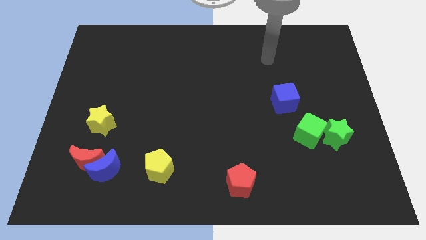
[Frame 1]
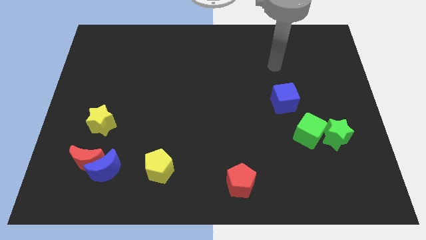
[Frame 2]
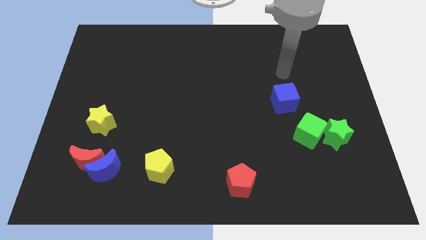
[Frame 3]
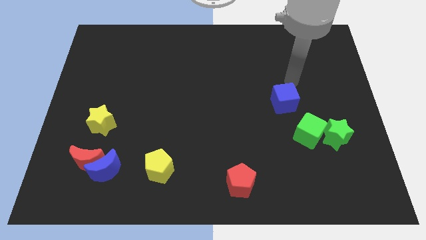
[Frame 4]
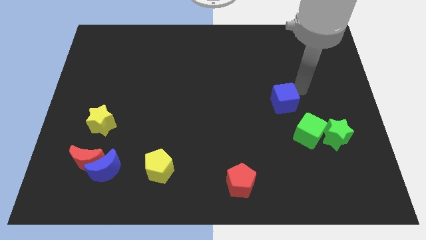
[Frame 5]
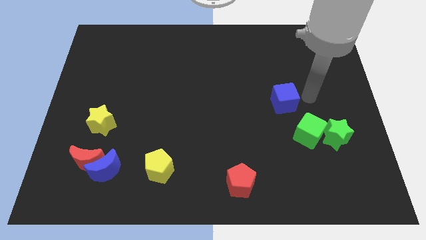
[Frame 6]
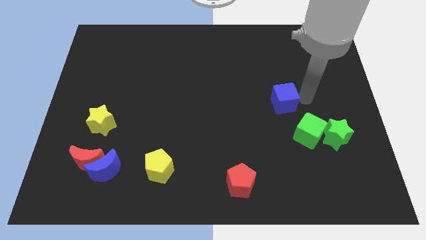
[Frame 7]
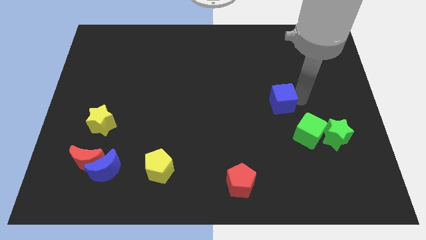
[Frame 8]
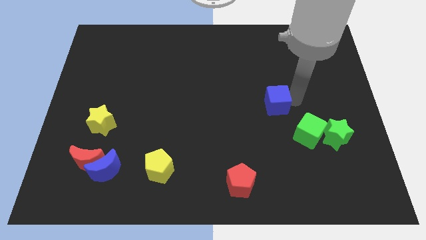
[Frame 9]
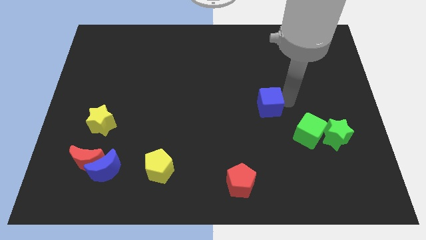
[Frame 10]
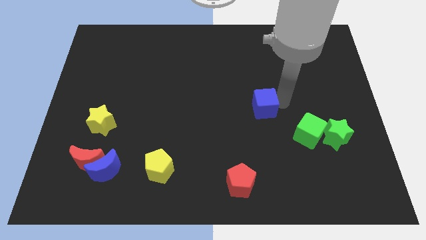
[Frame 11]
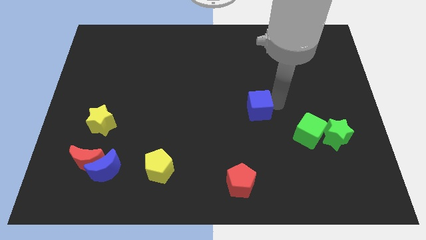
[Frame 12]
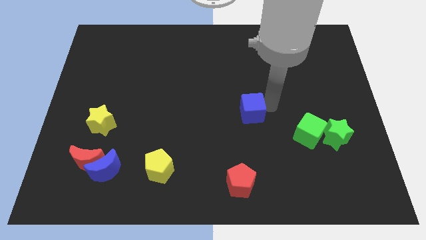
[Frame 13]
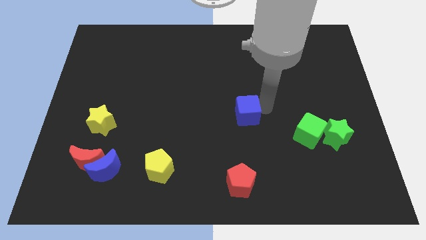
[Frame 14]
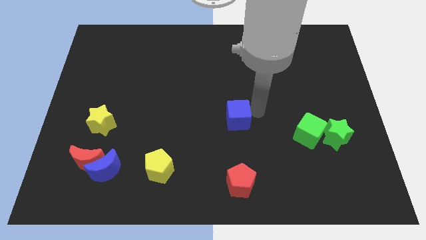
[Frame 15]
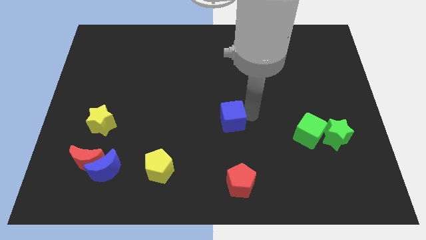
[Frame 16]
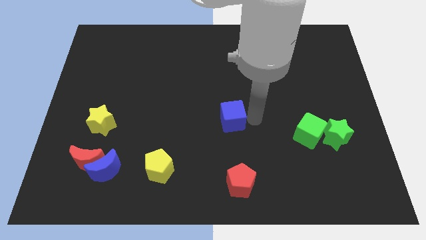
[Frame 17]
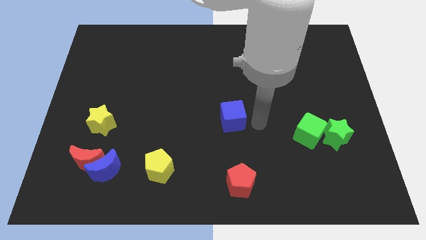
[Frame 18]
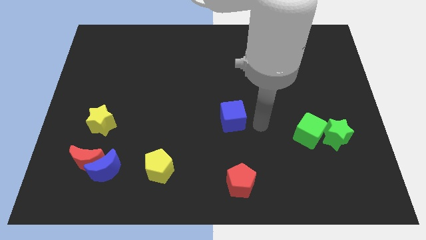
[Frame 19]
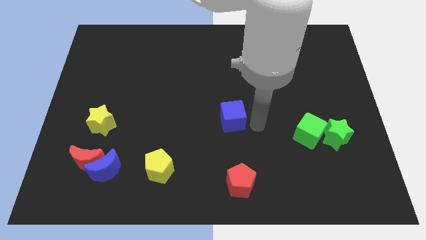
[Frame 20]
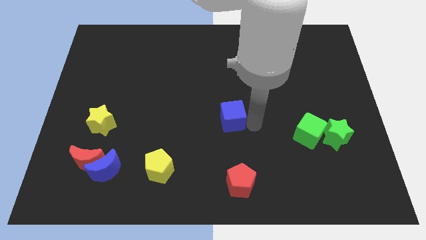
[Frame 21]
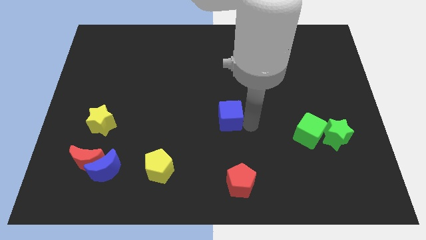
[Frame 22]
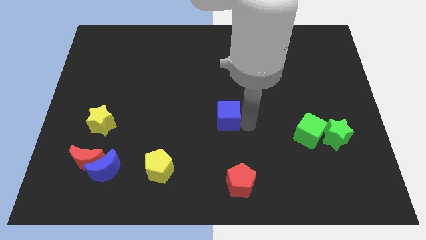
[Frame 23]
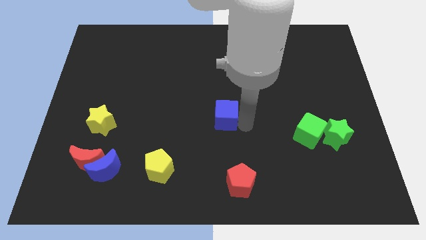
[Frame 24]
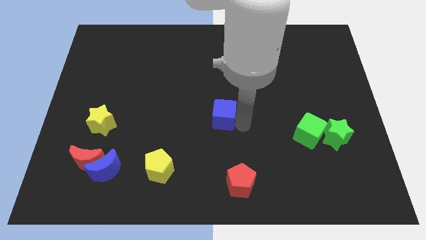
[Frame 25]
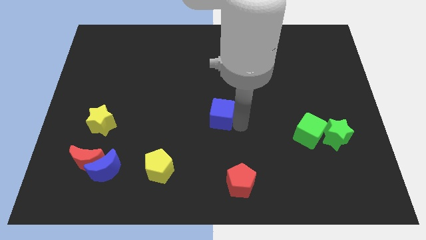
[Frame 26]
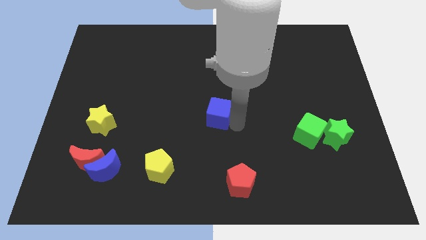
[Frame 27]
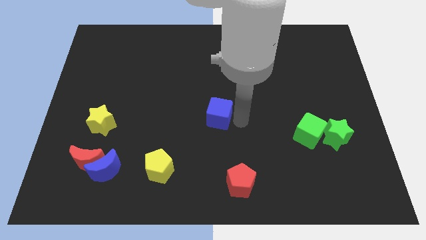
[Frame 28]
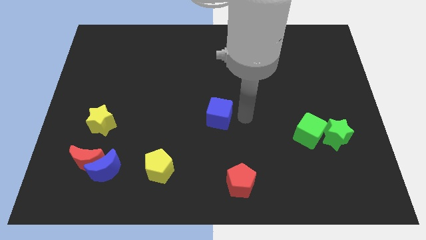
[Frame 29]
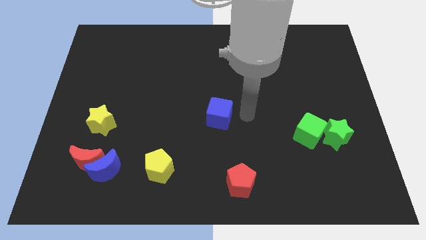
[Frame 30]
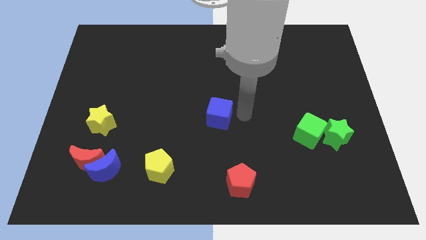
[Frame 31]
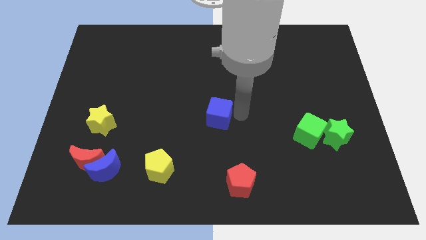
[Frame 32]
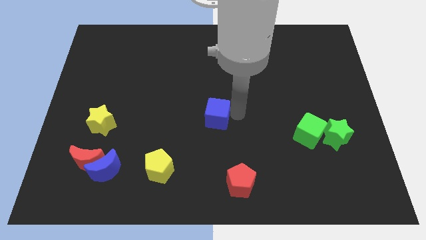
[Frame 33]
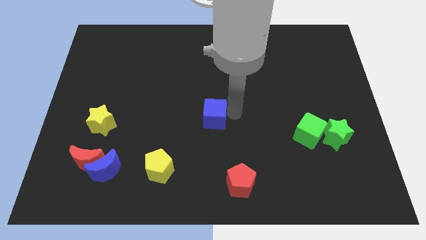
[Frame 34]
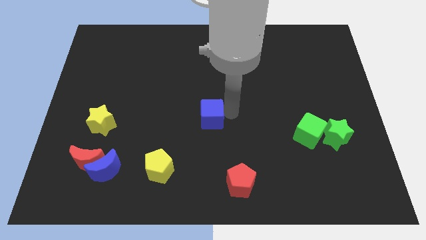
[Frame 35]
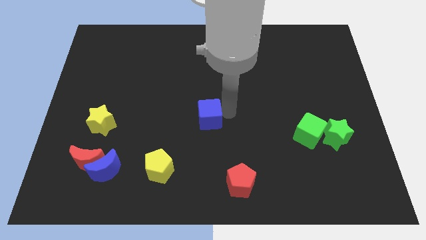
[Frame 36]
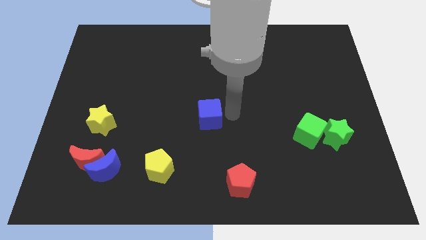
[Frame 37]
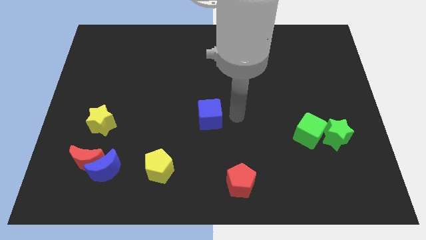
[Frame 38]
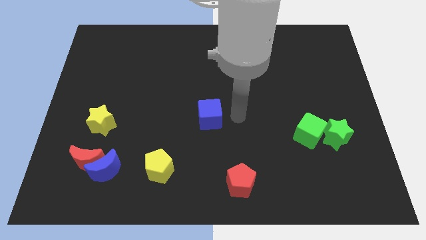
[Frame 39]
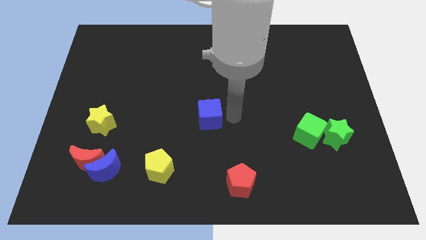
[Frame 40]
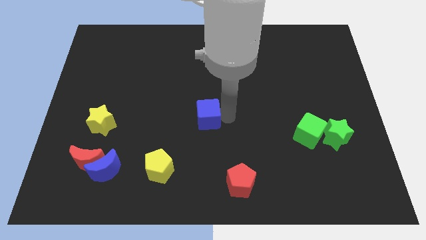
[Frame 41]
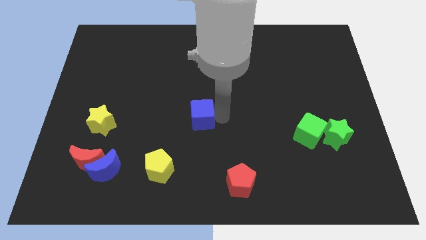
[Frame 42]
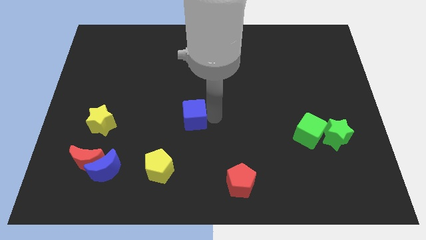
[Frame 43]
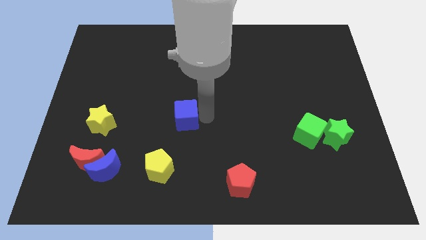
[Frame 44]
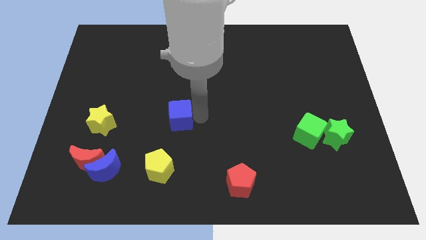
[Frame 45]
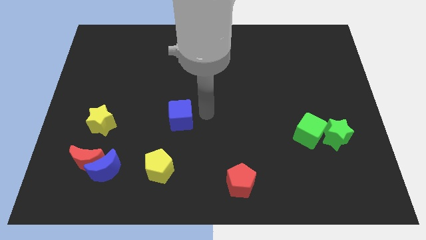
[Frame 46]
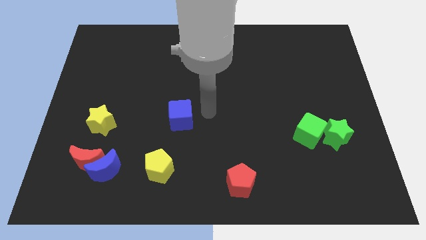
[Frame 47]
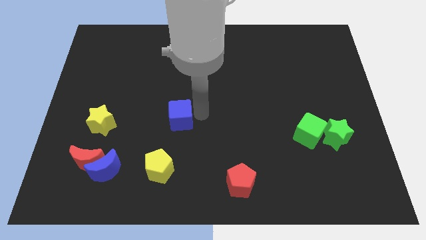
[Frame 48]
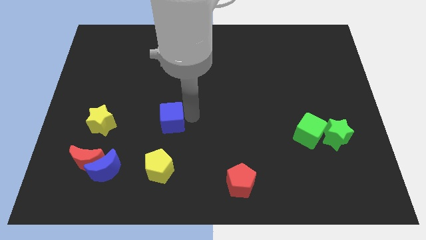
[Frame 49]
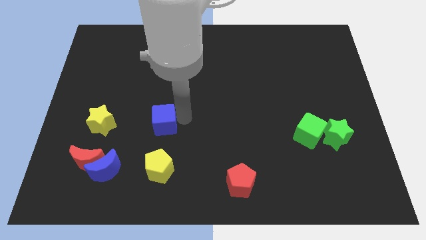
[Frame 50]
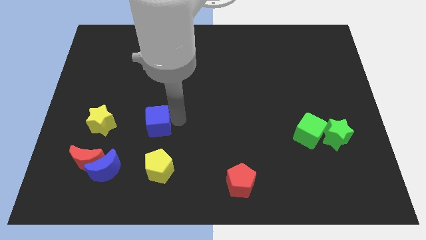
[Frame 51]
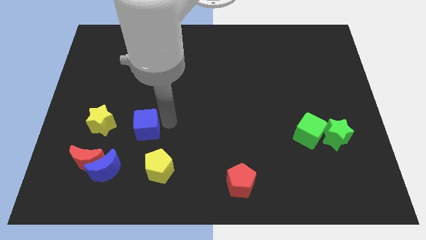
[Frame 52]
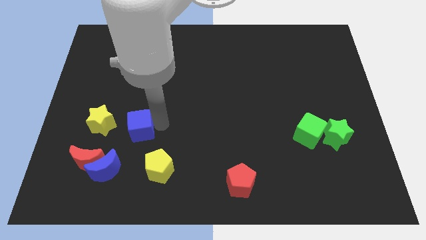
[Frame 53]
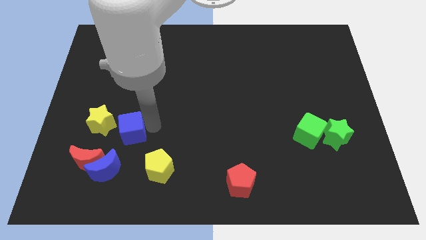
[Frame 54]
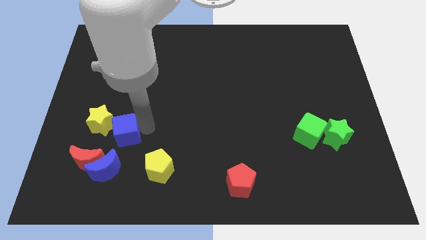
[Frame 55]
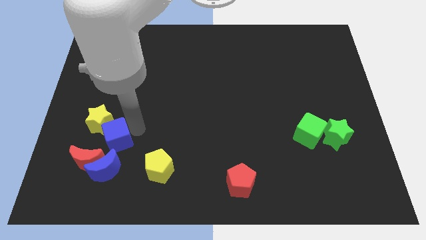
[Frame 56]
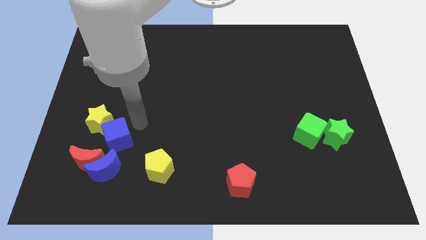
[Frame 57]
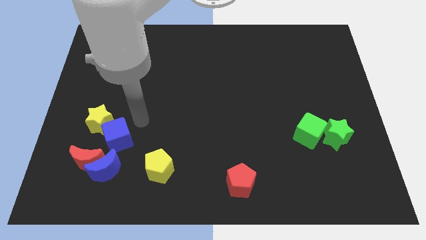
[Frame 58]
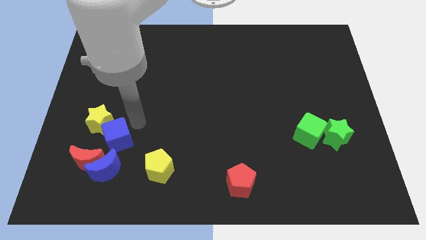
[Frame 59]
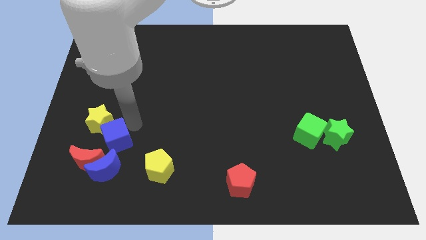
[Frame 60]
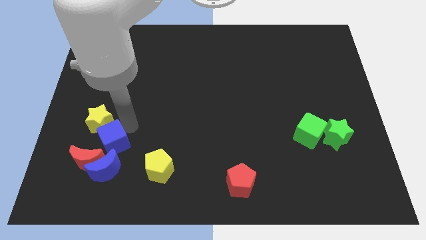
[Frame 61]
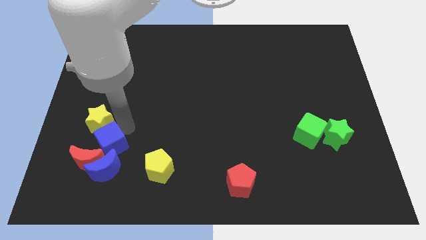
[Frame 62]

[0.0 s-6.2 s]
slide the blue cube towards the red moon

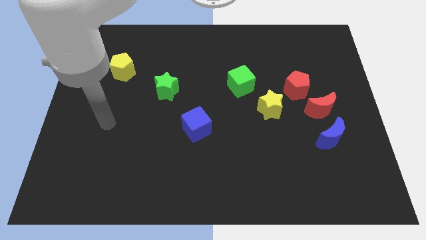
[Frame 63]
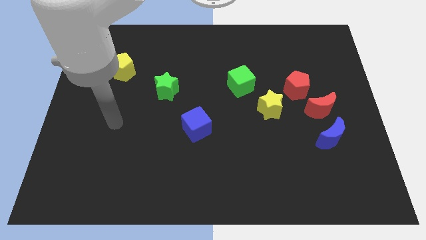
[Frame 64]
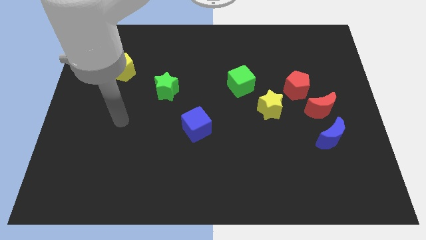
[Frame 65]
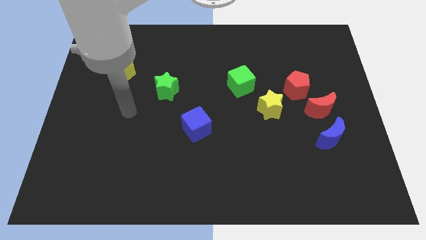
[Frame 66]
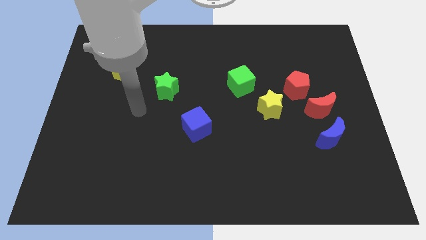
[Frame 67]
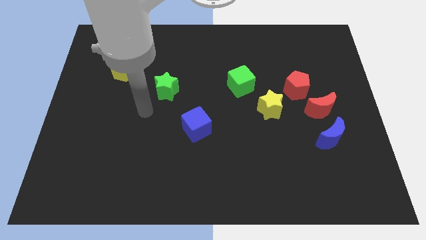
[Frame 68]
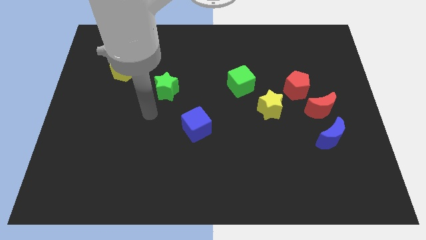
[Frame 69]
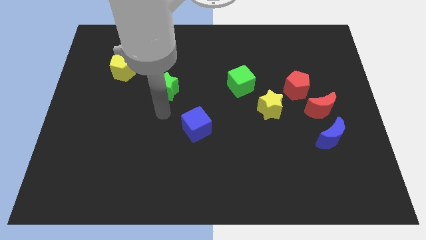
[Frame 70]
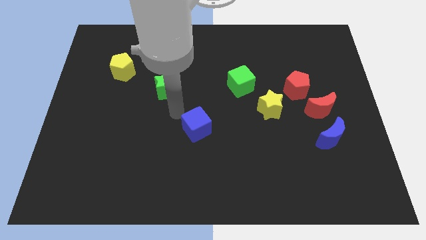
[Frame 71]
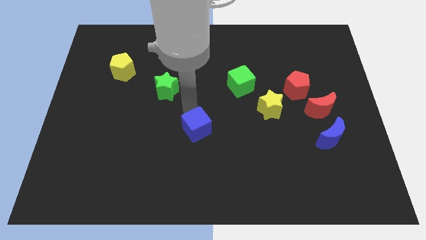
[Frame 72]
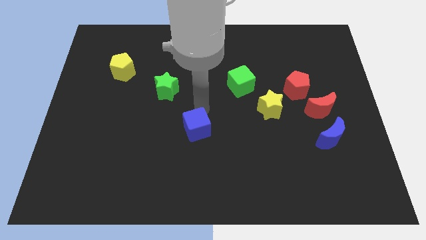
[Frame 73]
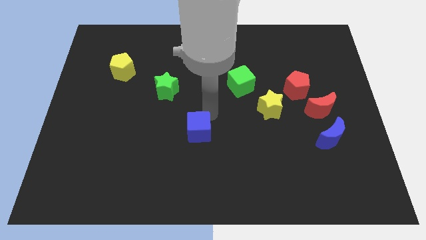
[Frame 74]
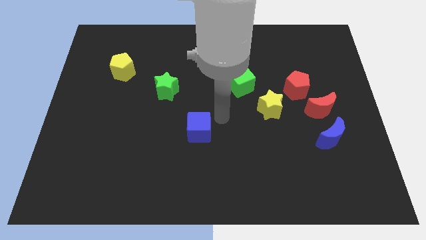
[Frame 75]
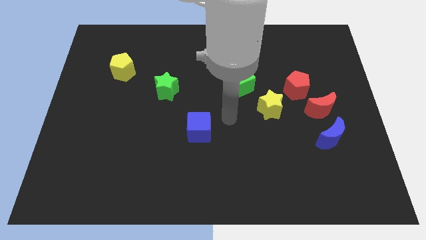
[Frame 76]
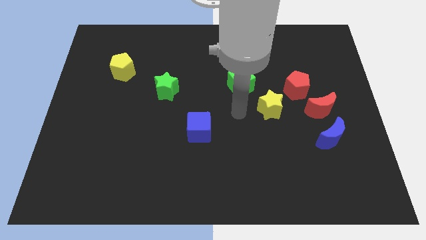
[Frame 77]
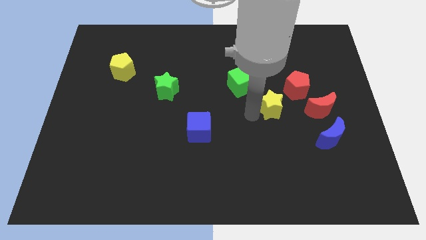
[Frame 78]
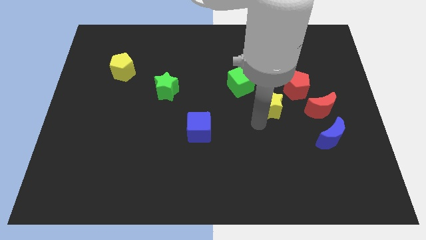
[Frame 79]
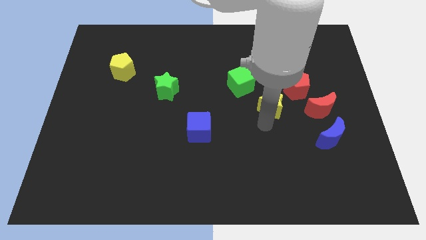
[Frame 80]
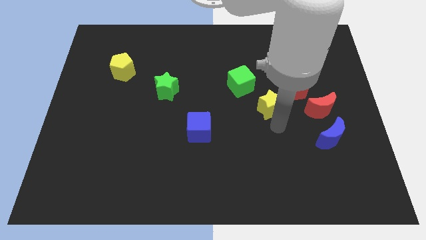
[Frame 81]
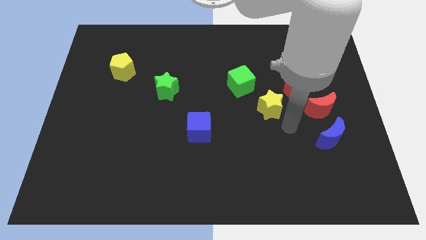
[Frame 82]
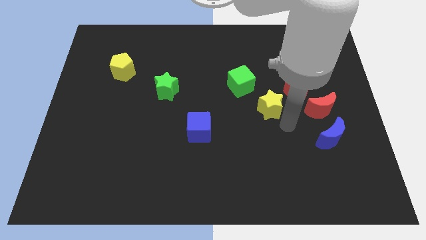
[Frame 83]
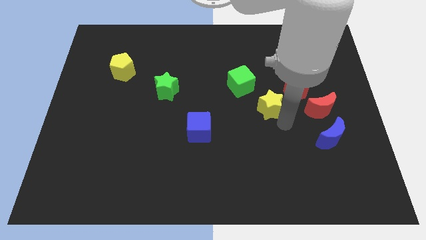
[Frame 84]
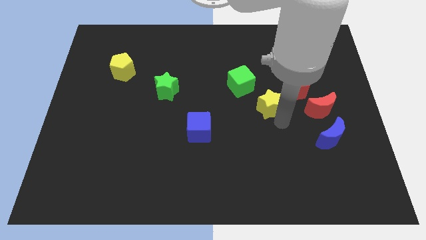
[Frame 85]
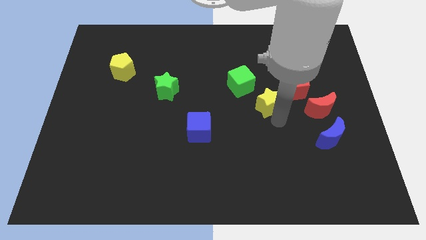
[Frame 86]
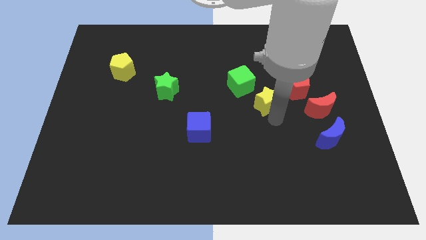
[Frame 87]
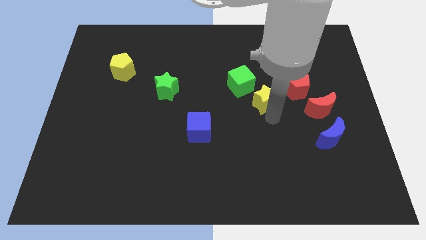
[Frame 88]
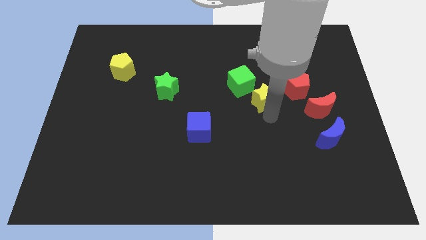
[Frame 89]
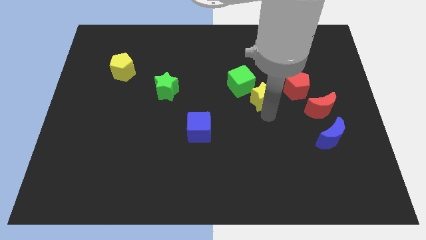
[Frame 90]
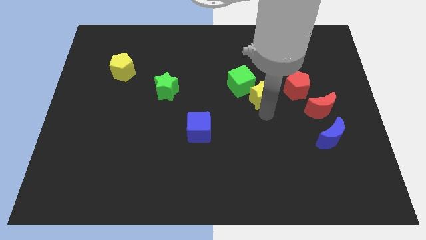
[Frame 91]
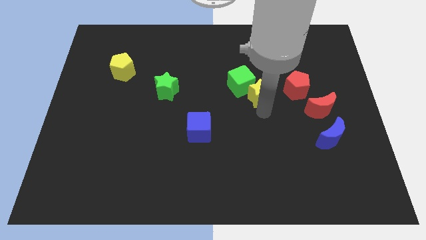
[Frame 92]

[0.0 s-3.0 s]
put the yellow star to the green cube
